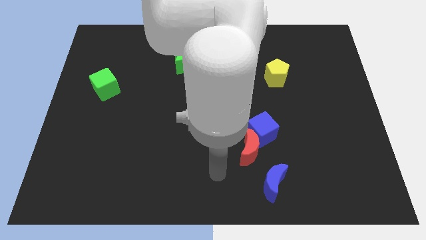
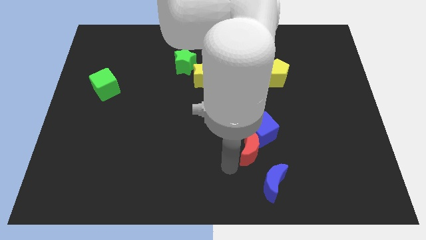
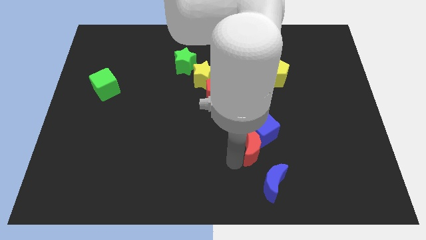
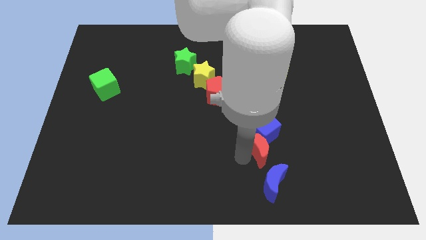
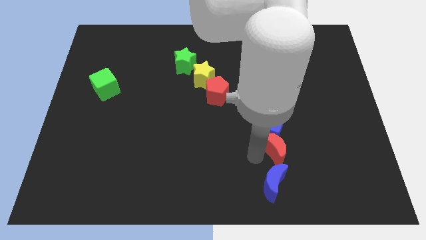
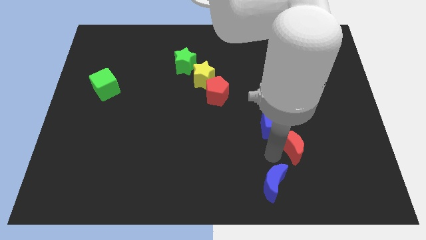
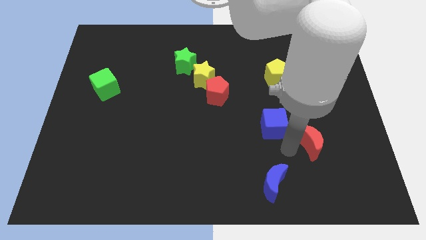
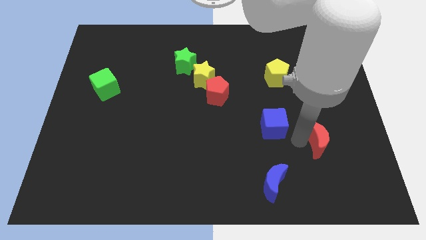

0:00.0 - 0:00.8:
move the blue cube away from the red moon

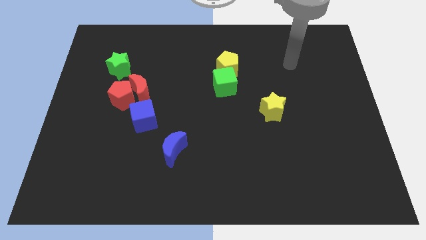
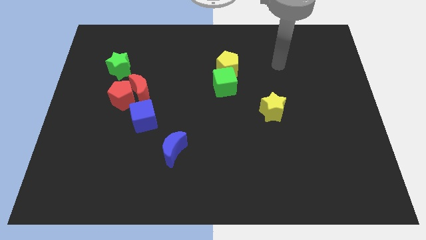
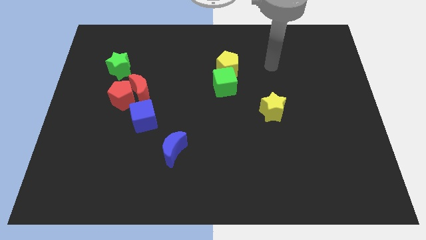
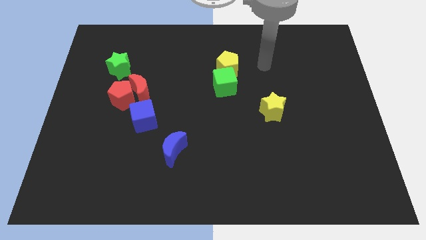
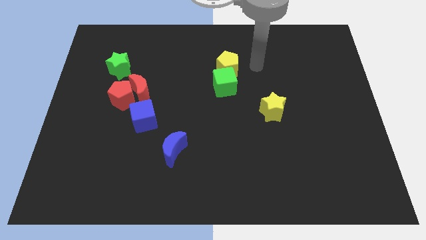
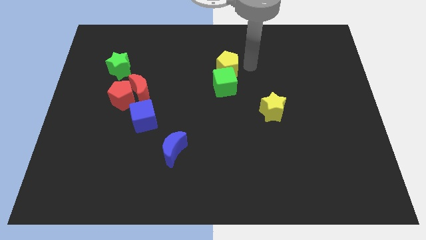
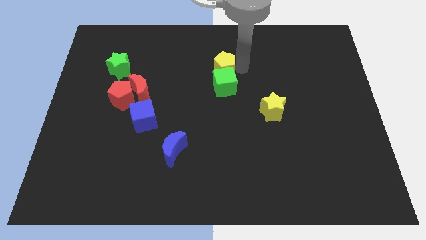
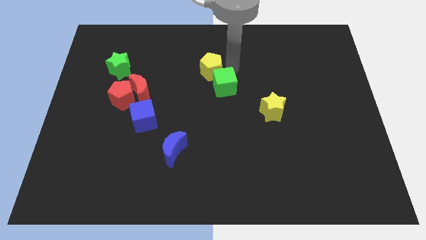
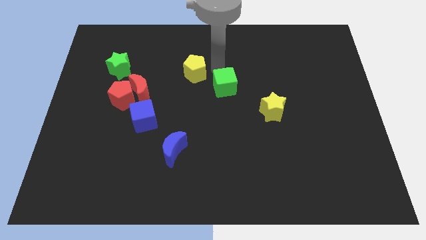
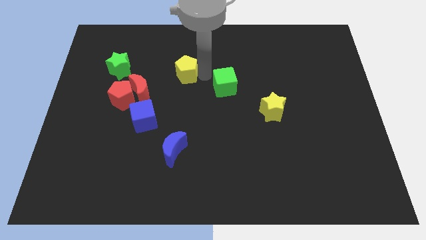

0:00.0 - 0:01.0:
separate the green cube from the yellow pentagon

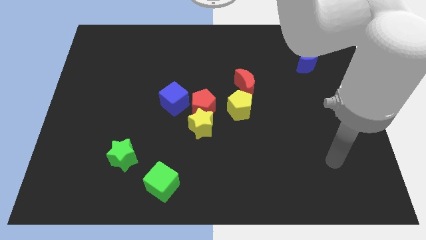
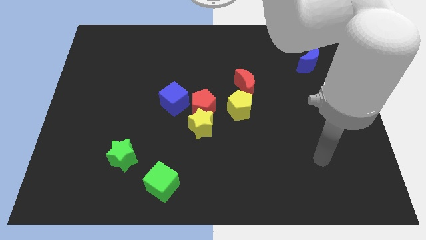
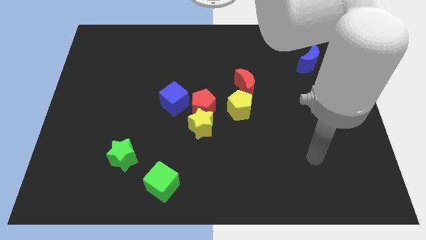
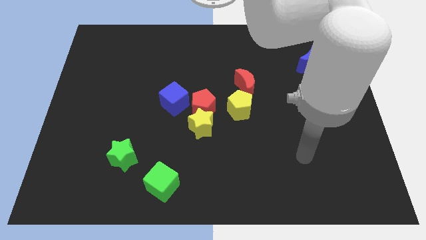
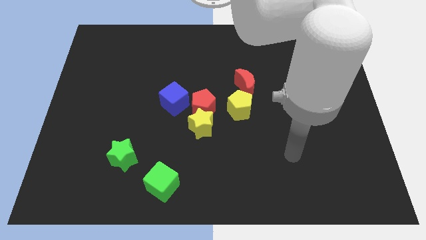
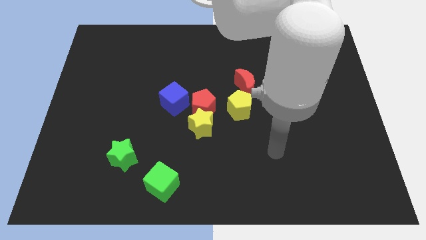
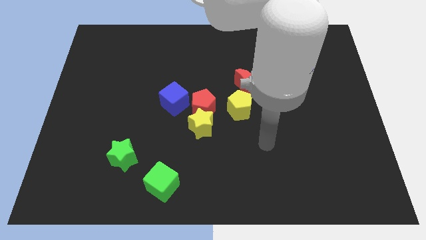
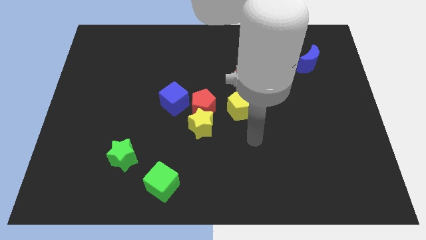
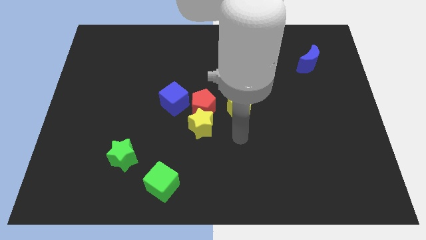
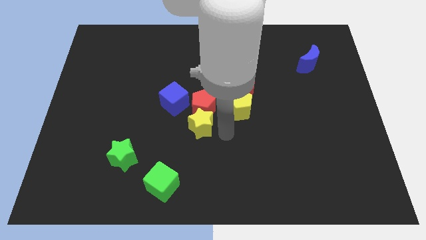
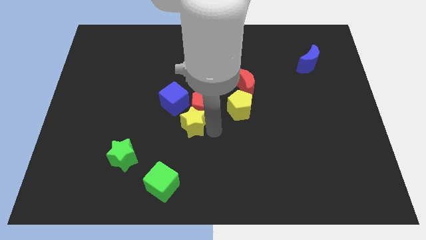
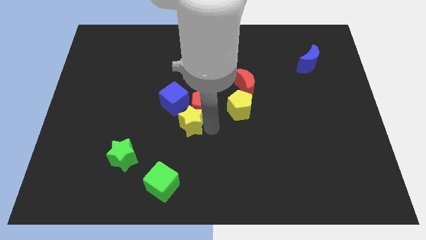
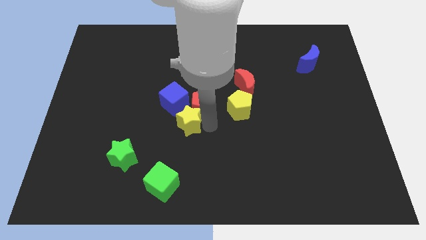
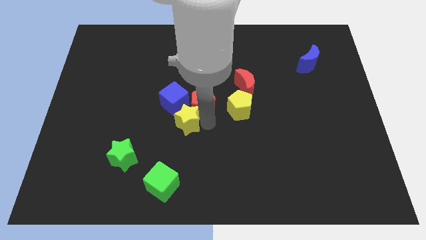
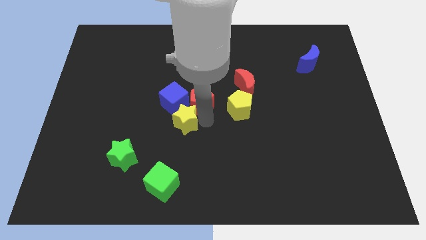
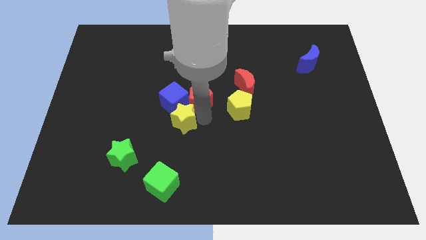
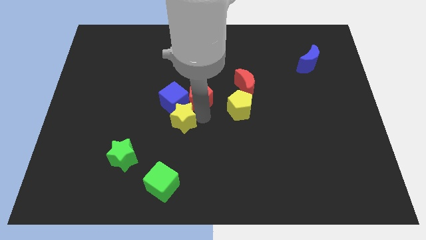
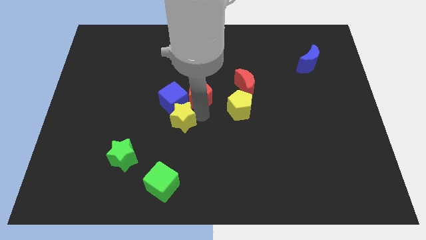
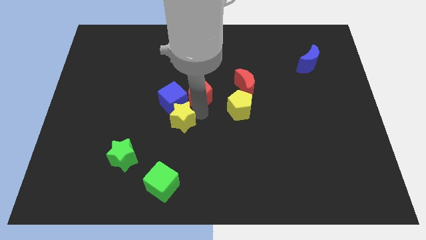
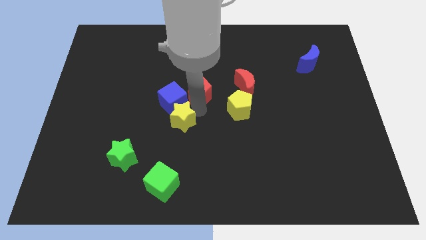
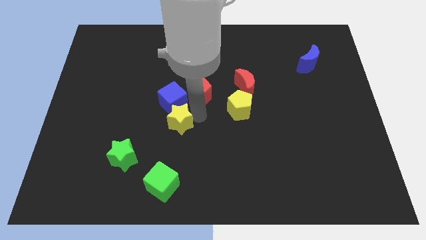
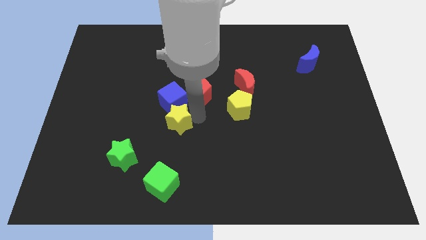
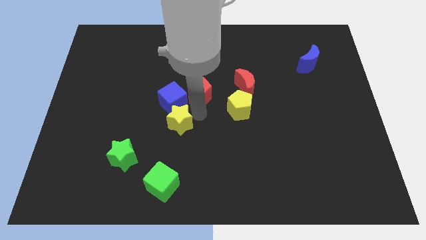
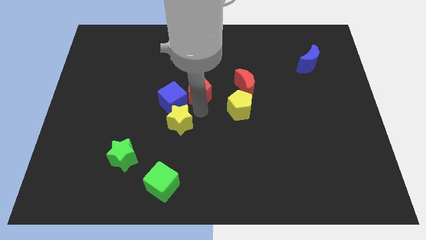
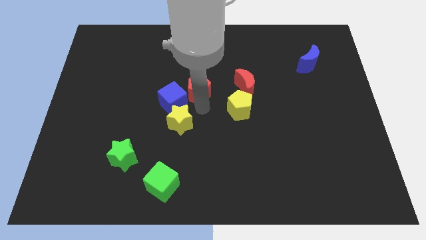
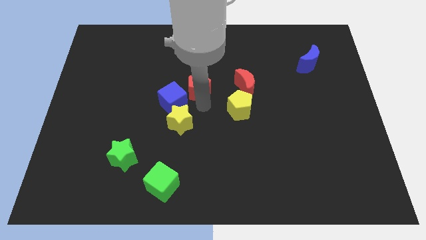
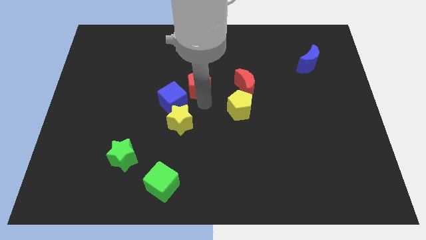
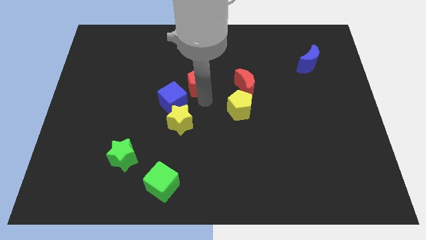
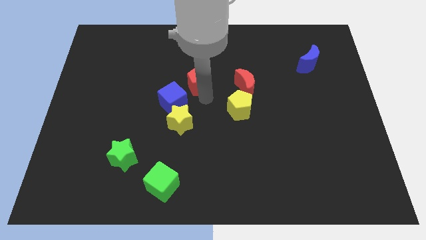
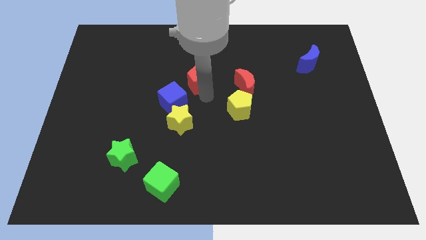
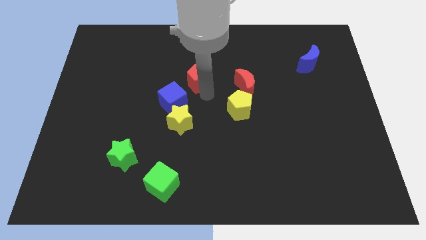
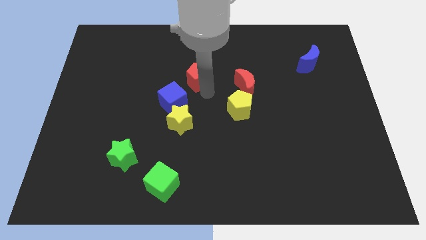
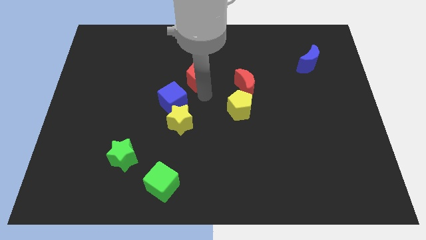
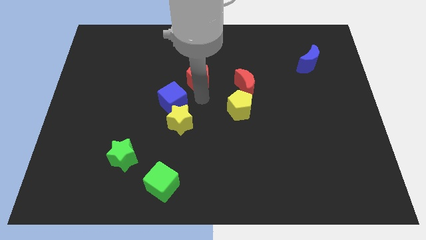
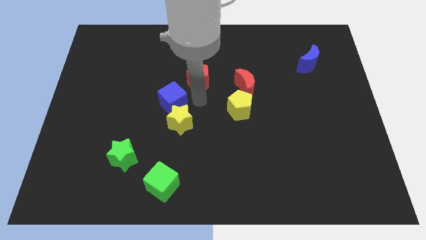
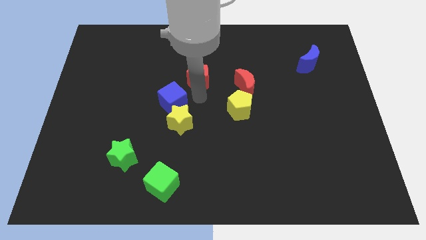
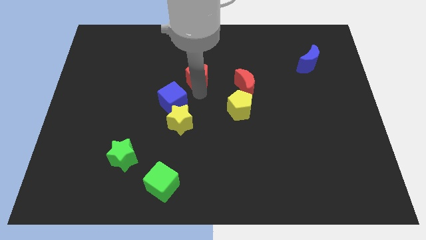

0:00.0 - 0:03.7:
pull the red pentagon apart from the yellow star, blue cube, and yellow pentagon

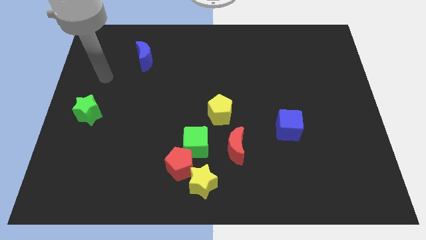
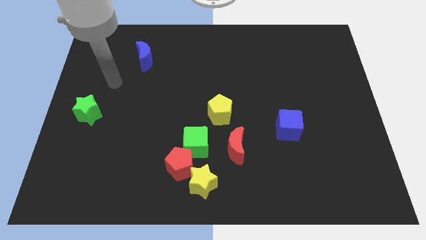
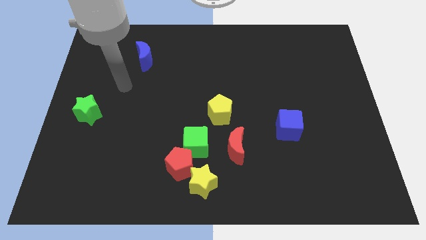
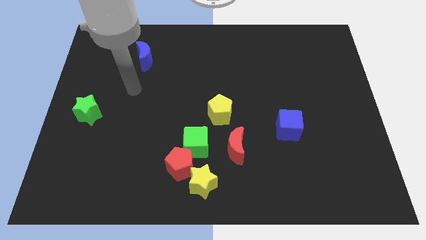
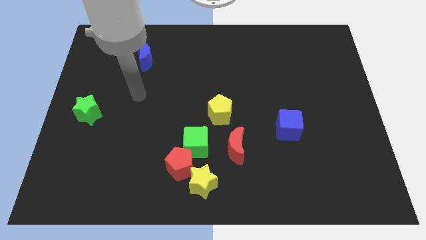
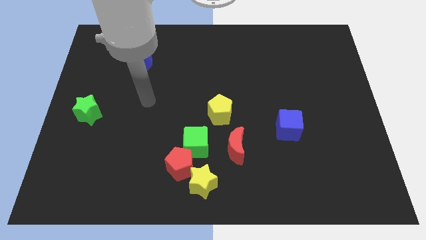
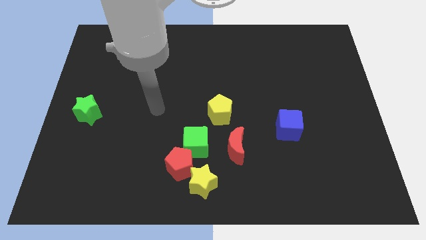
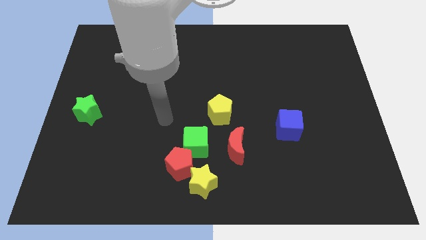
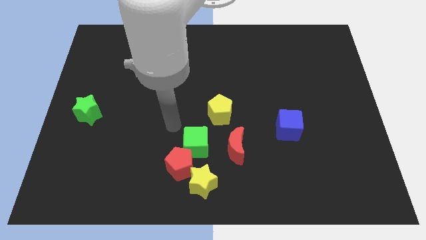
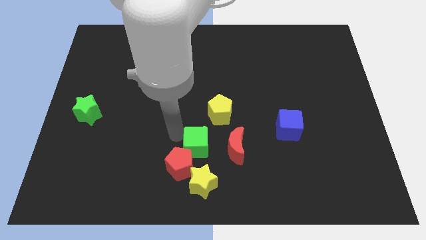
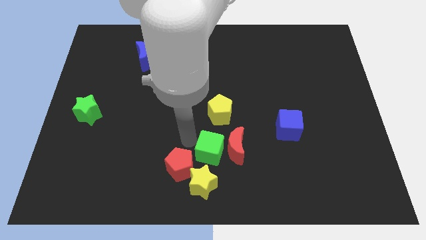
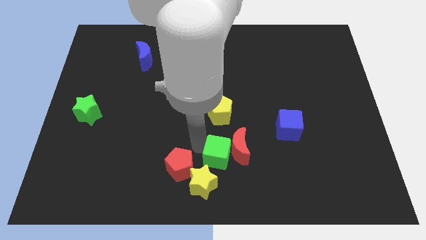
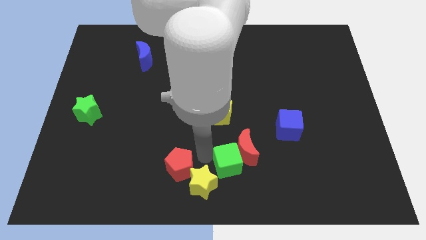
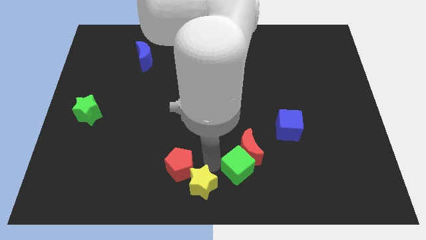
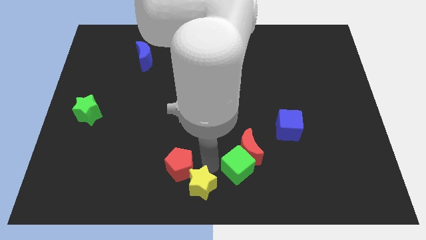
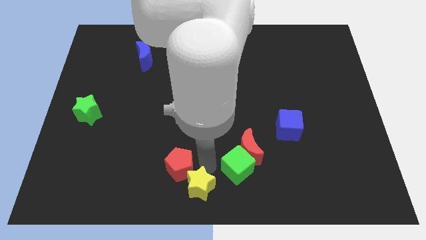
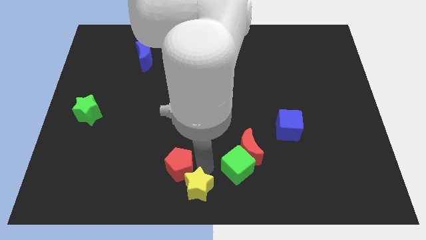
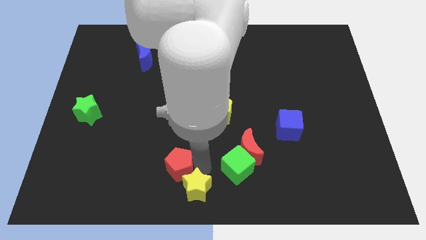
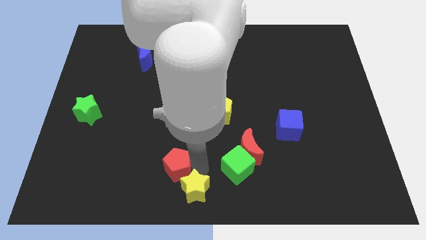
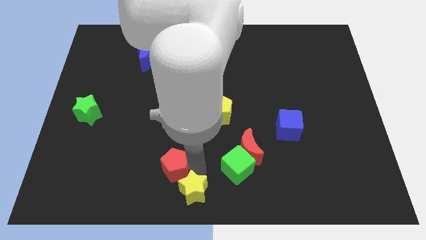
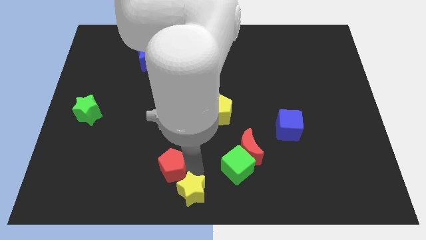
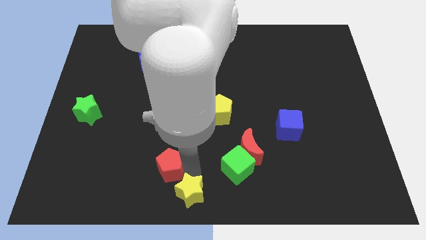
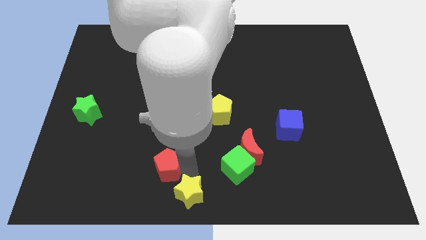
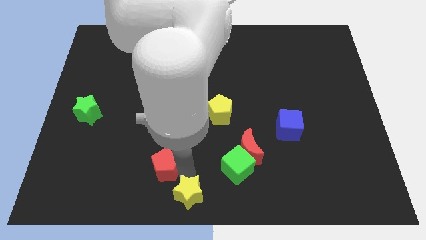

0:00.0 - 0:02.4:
separate the red pentagon from the yellow star and green cube

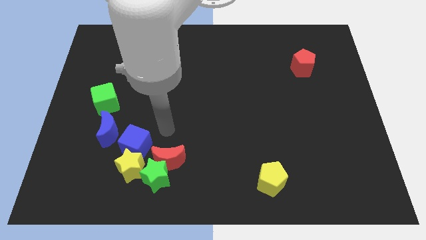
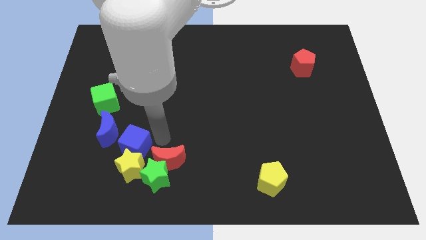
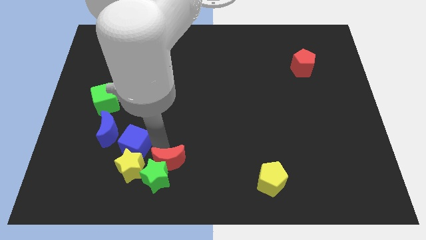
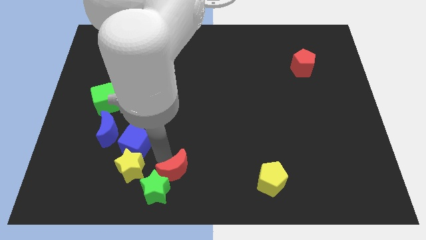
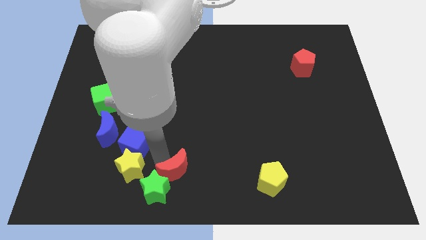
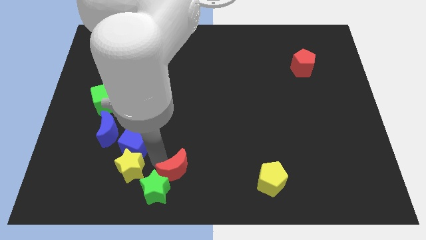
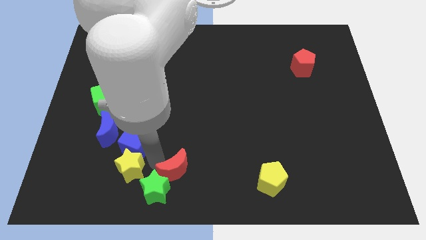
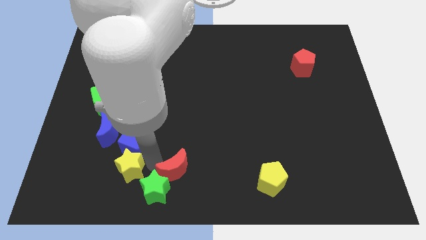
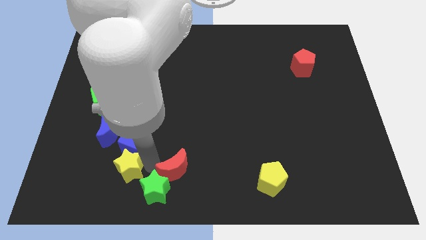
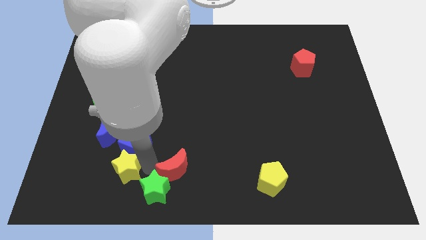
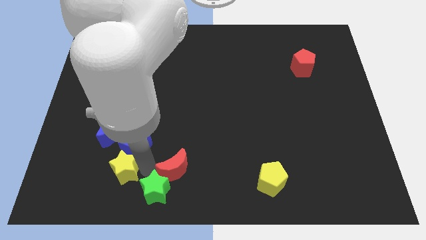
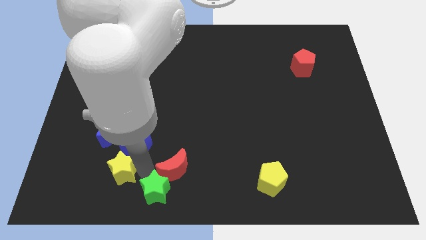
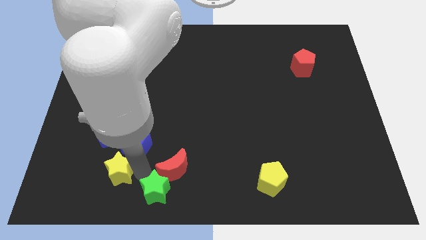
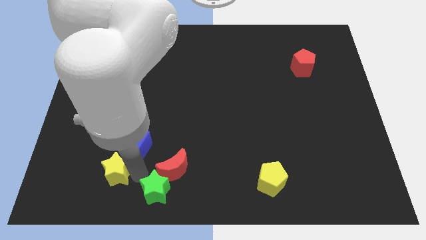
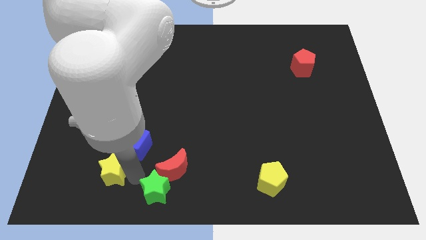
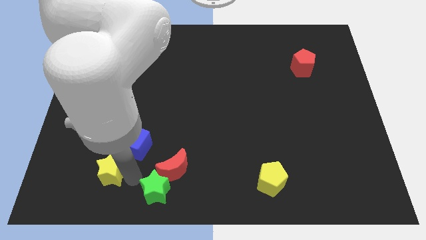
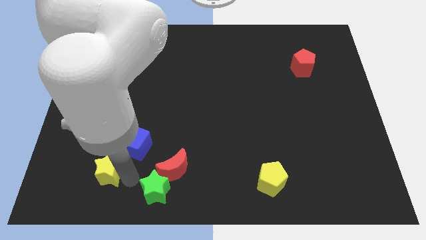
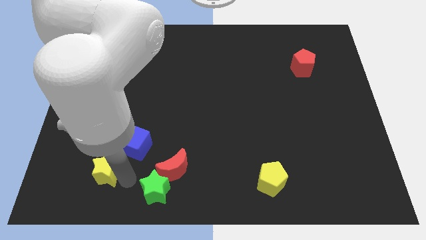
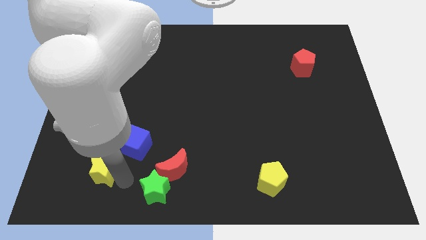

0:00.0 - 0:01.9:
separate the yellow star from the group of blocks
